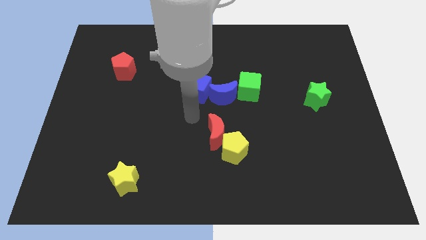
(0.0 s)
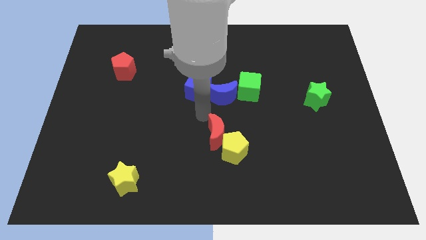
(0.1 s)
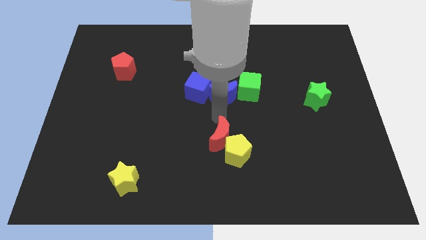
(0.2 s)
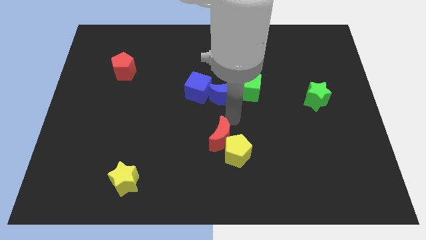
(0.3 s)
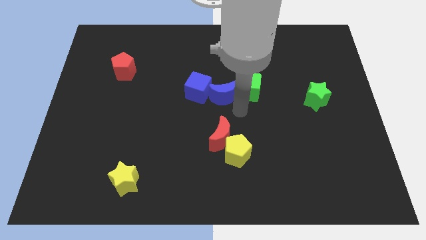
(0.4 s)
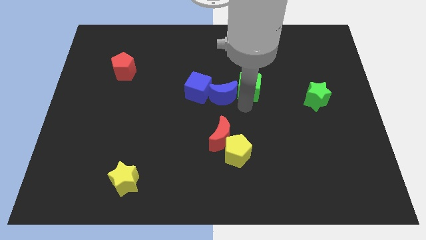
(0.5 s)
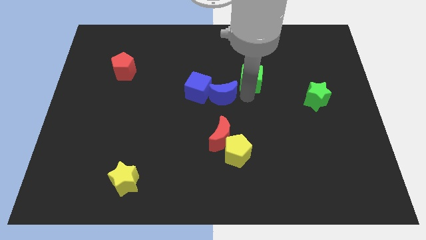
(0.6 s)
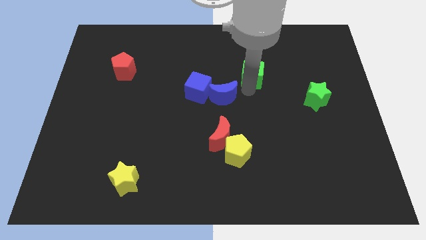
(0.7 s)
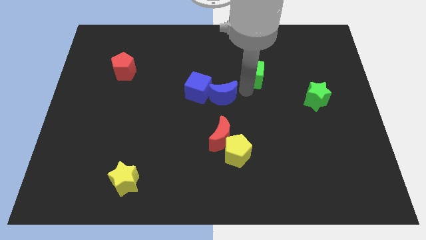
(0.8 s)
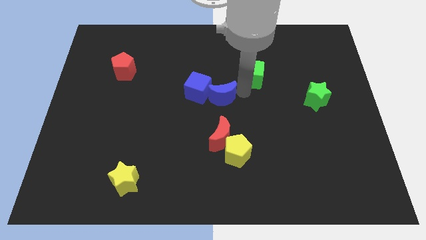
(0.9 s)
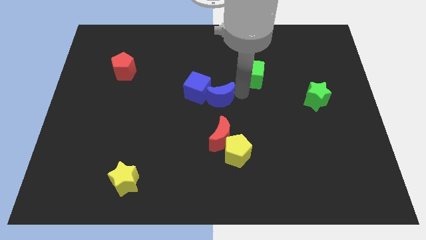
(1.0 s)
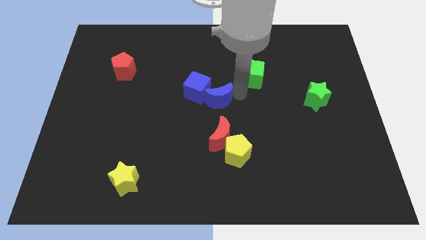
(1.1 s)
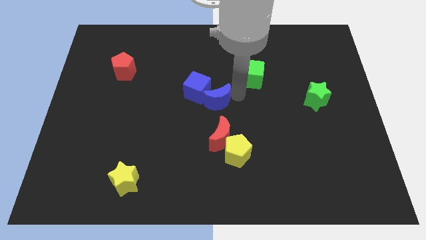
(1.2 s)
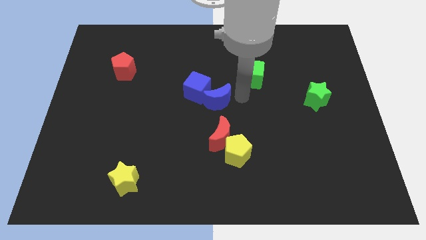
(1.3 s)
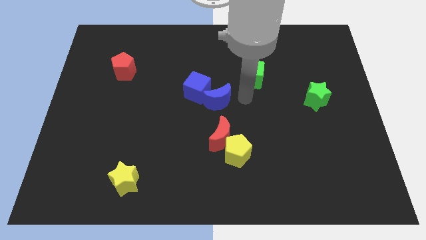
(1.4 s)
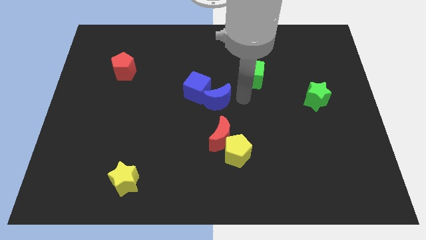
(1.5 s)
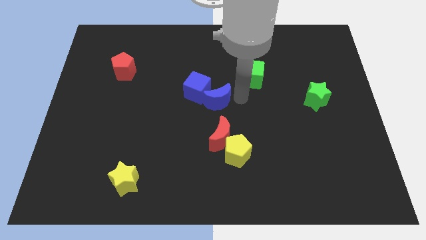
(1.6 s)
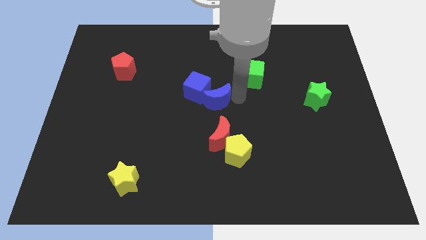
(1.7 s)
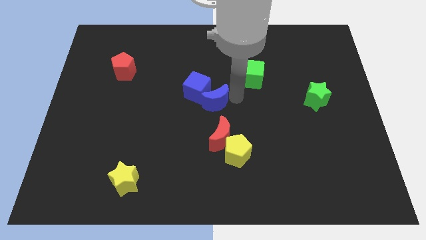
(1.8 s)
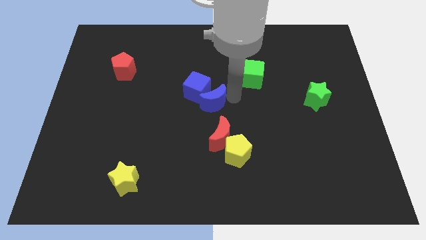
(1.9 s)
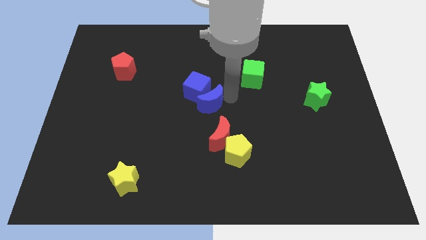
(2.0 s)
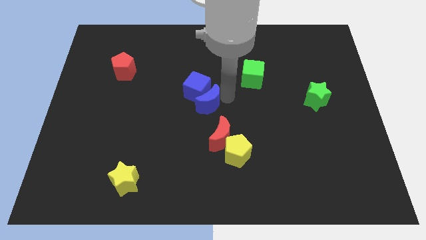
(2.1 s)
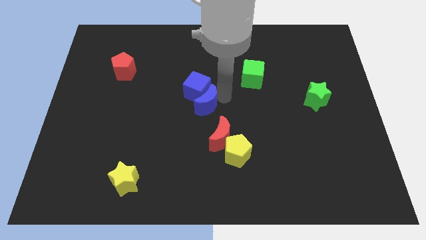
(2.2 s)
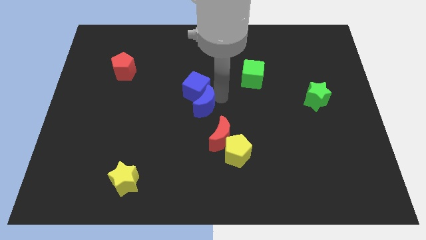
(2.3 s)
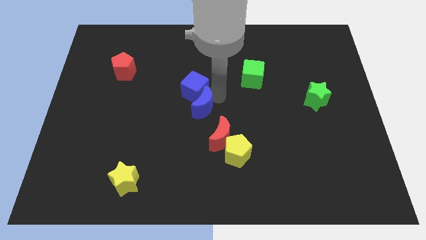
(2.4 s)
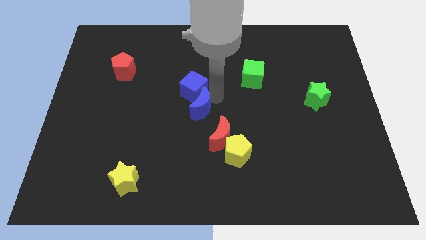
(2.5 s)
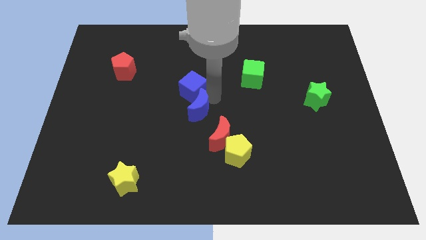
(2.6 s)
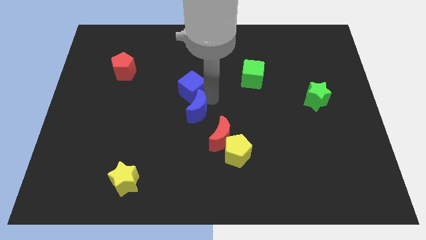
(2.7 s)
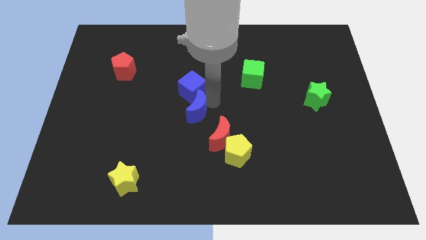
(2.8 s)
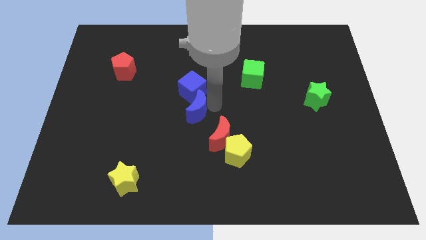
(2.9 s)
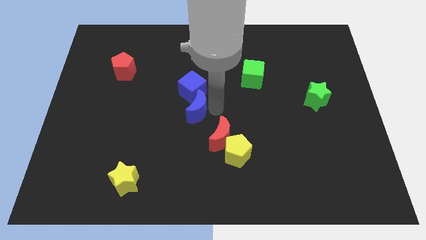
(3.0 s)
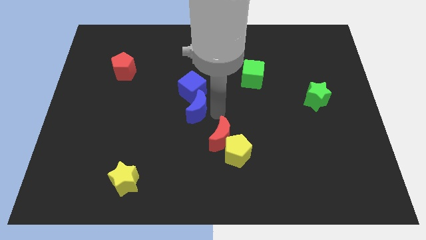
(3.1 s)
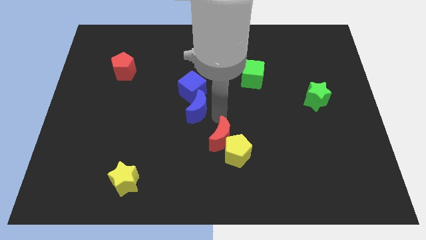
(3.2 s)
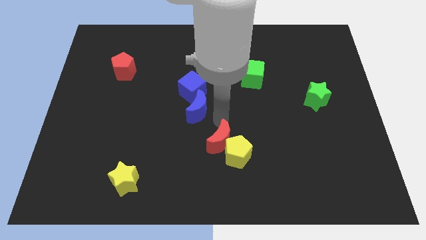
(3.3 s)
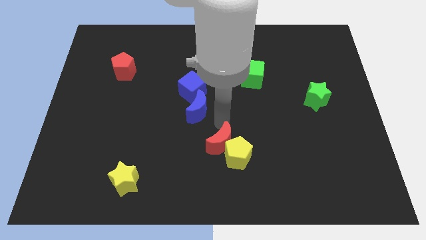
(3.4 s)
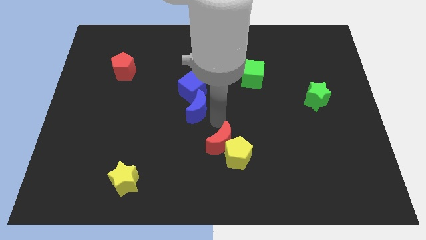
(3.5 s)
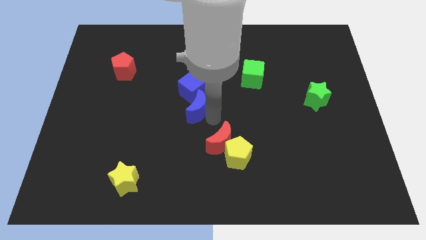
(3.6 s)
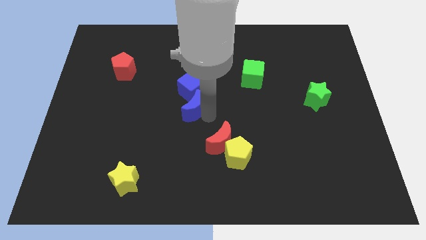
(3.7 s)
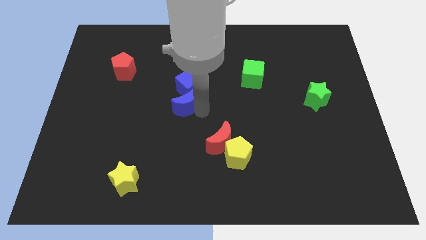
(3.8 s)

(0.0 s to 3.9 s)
move the blue moon a little bit to the left

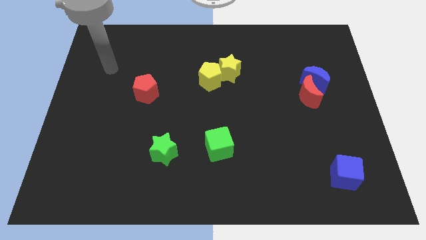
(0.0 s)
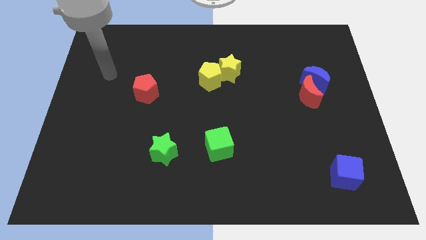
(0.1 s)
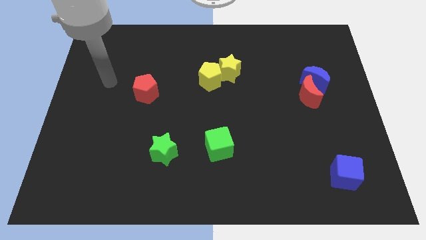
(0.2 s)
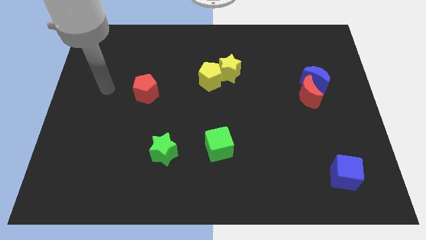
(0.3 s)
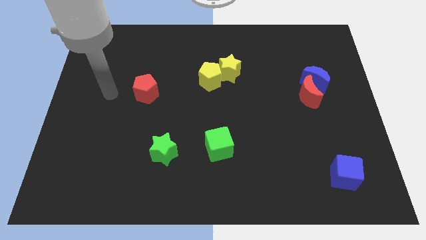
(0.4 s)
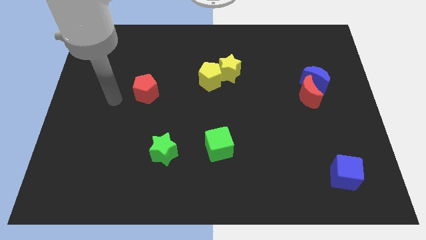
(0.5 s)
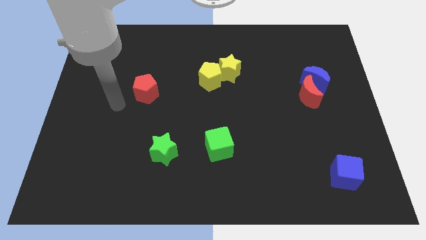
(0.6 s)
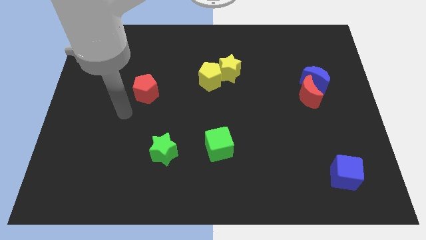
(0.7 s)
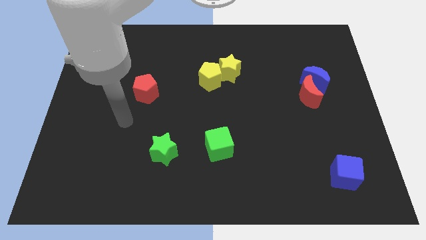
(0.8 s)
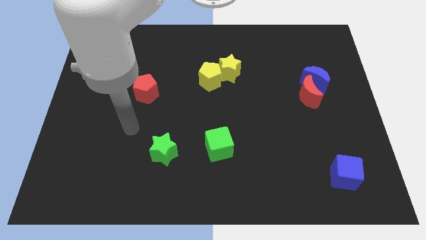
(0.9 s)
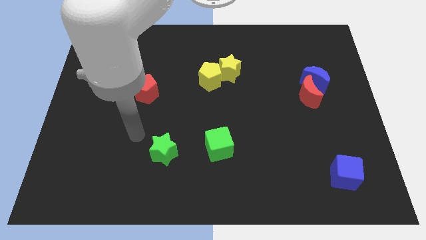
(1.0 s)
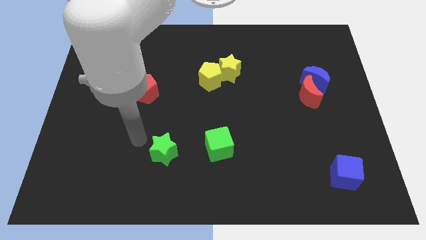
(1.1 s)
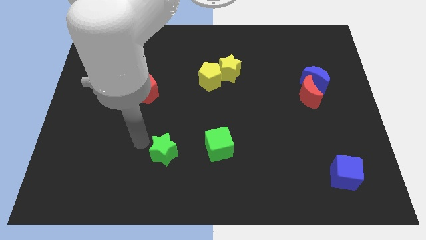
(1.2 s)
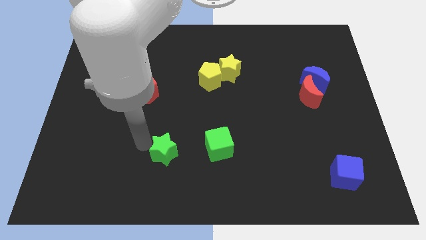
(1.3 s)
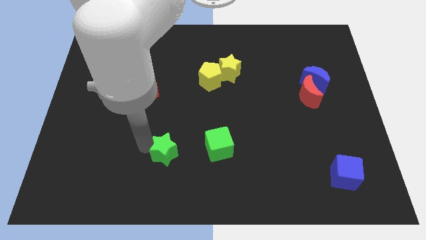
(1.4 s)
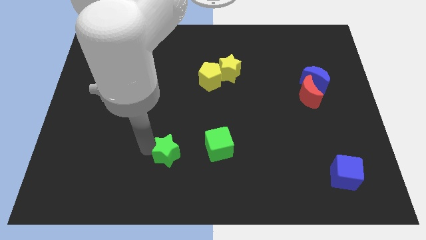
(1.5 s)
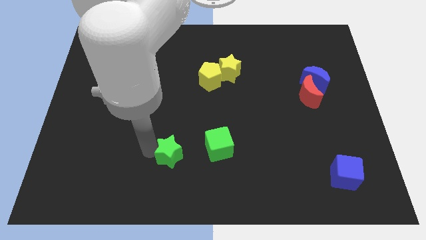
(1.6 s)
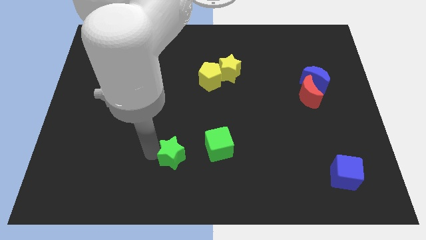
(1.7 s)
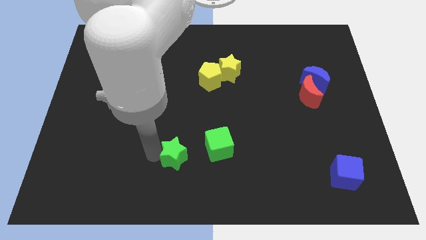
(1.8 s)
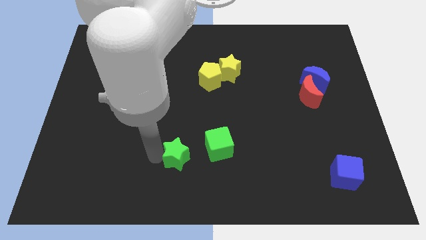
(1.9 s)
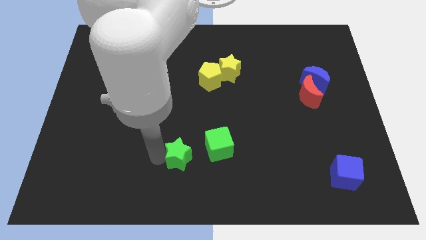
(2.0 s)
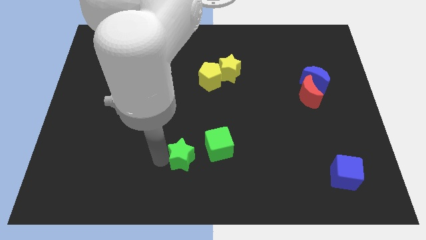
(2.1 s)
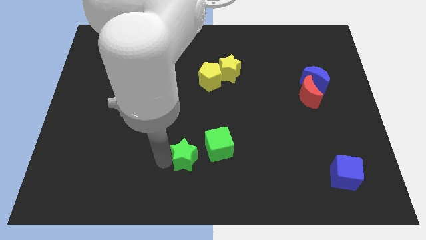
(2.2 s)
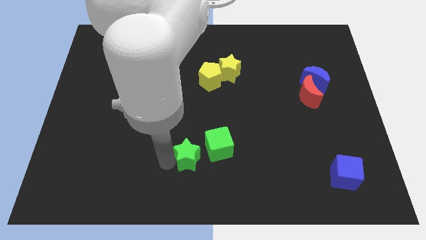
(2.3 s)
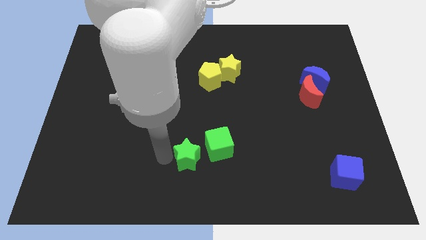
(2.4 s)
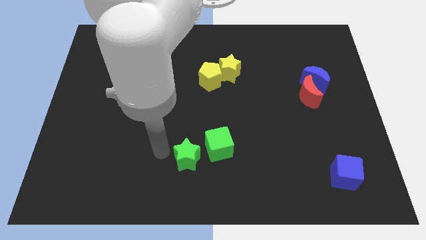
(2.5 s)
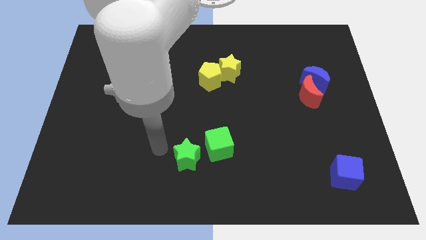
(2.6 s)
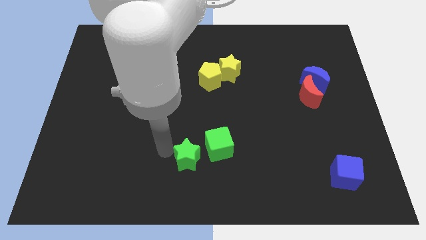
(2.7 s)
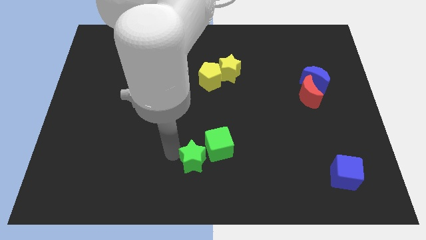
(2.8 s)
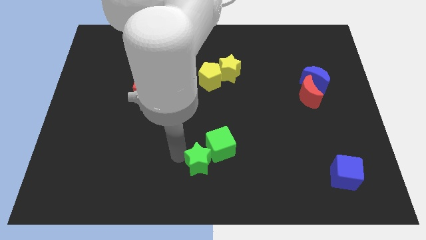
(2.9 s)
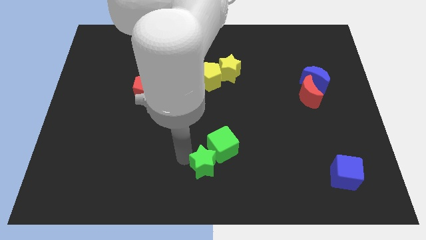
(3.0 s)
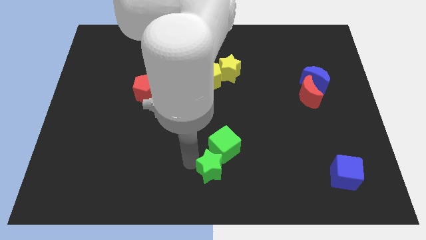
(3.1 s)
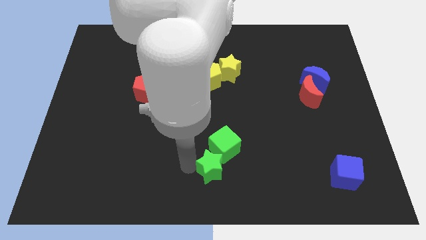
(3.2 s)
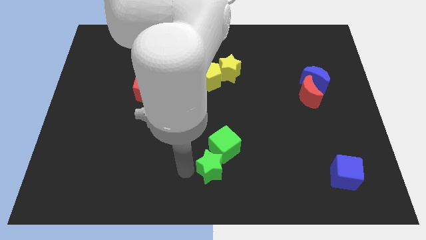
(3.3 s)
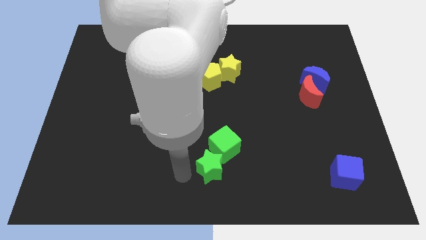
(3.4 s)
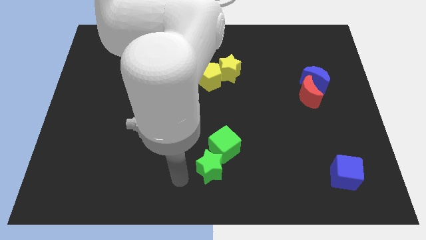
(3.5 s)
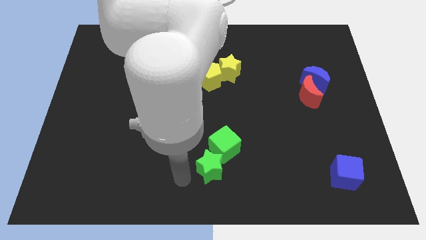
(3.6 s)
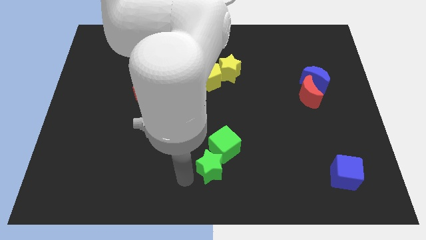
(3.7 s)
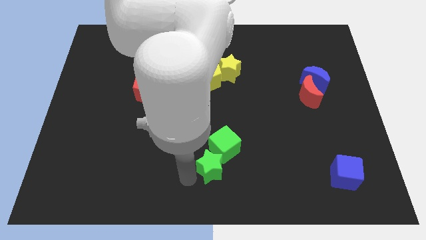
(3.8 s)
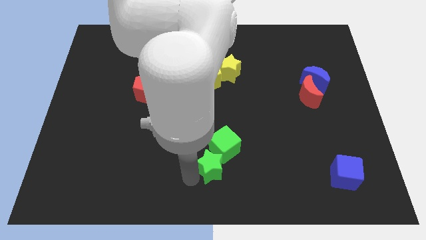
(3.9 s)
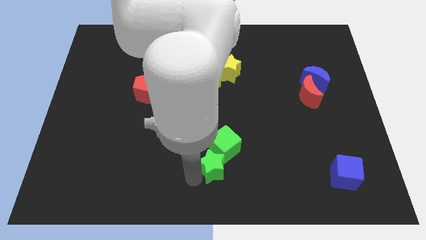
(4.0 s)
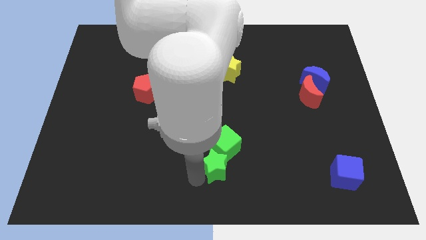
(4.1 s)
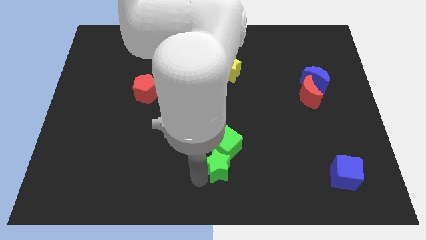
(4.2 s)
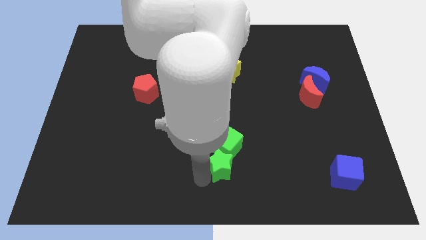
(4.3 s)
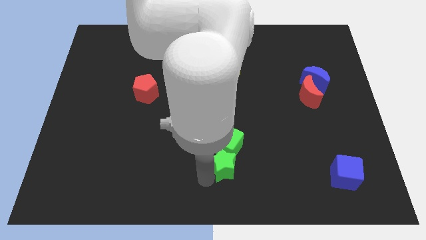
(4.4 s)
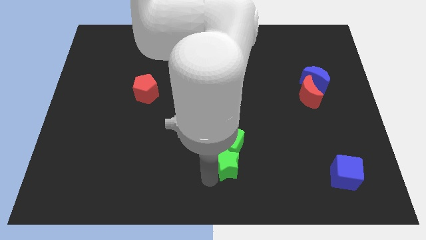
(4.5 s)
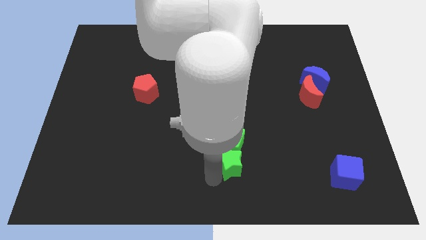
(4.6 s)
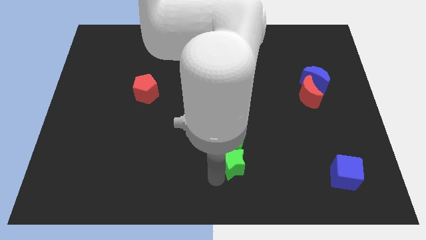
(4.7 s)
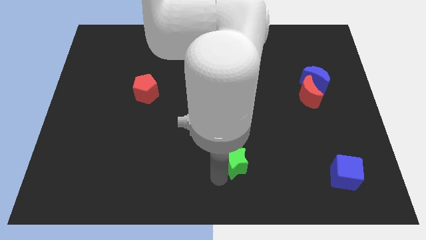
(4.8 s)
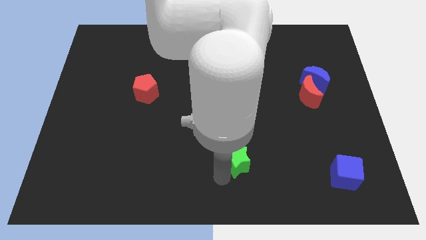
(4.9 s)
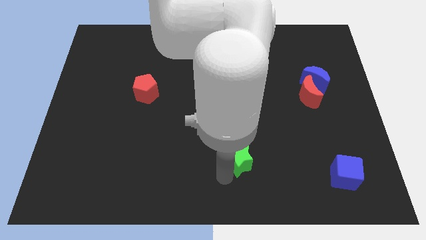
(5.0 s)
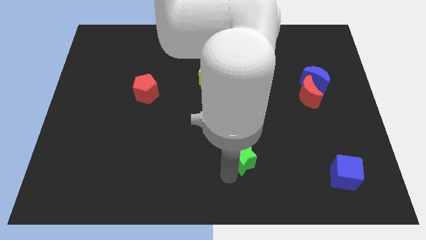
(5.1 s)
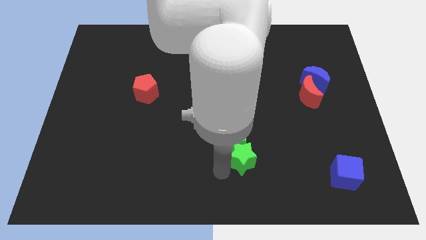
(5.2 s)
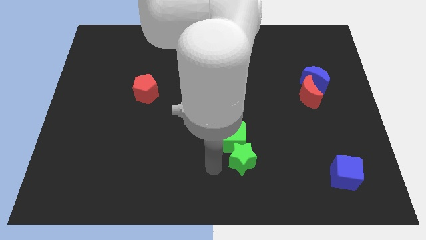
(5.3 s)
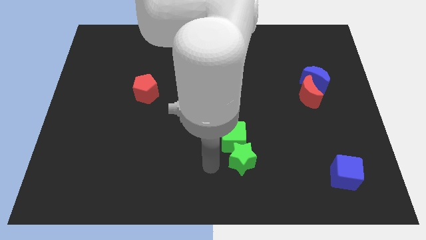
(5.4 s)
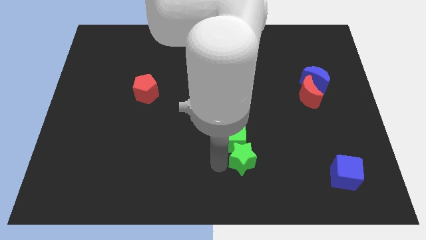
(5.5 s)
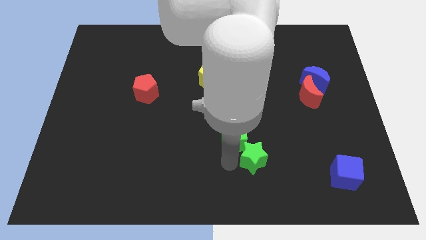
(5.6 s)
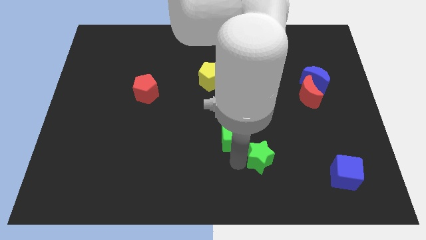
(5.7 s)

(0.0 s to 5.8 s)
move the green star to the right
